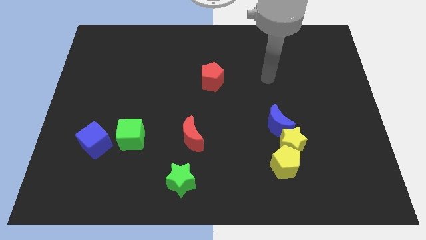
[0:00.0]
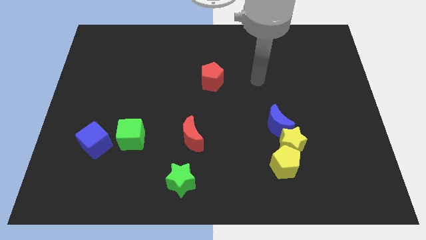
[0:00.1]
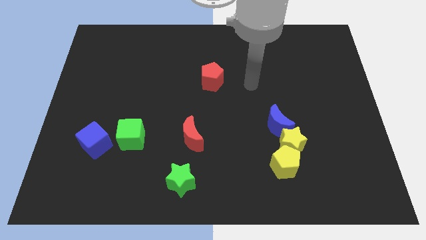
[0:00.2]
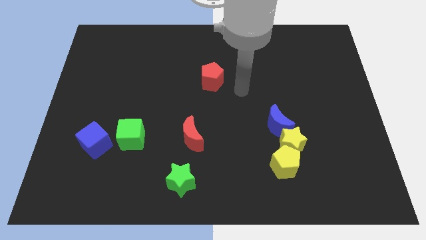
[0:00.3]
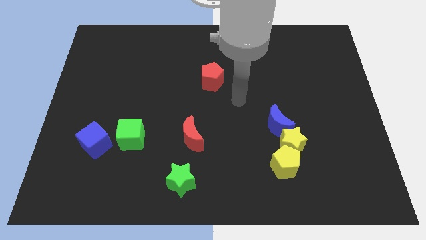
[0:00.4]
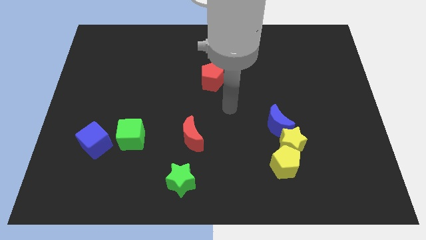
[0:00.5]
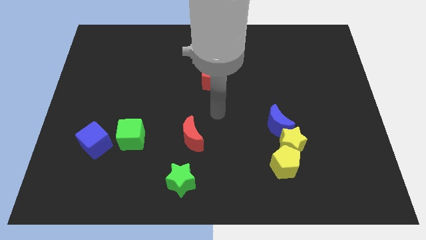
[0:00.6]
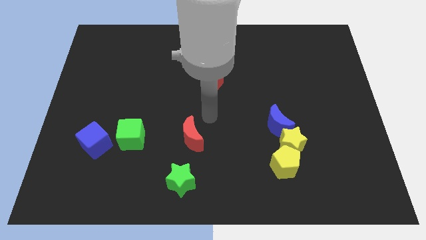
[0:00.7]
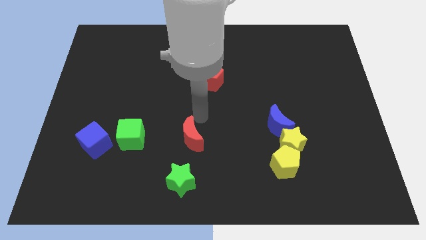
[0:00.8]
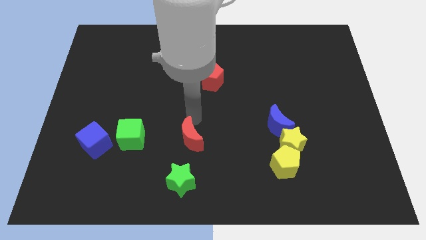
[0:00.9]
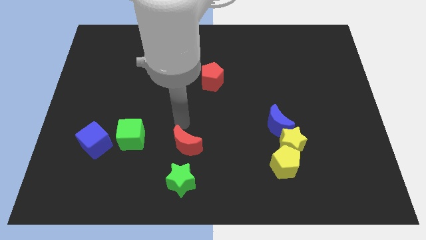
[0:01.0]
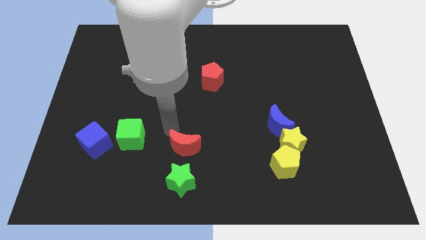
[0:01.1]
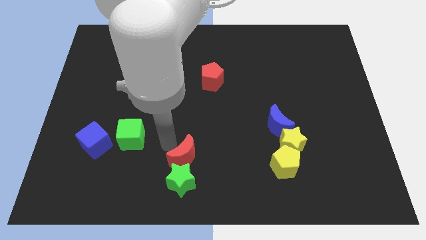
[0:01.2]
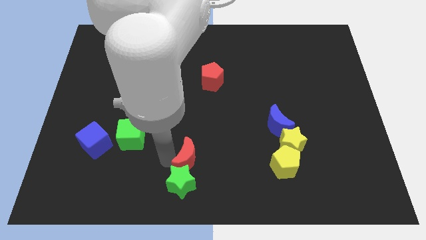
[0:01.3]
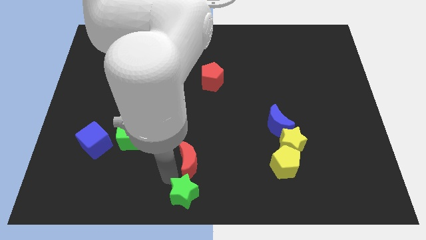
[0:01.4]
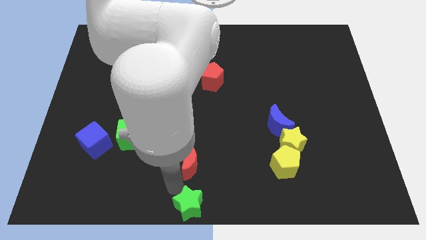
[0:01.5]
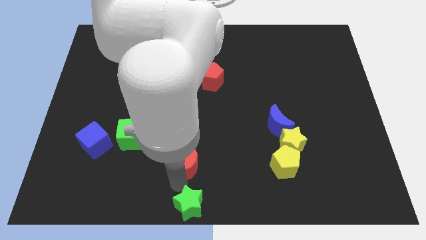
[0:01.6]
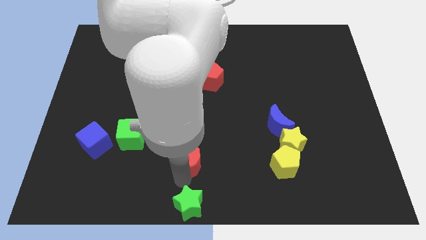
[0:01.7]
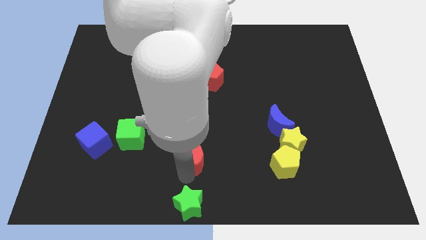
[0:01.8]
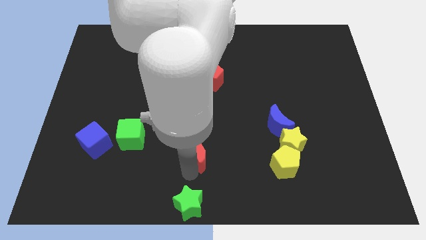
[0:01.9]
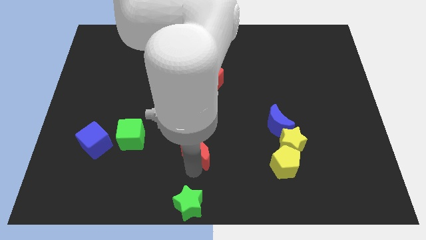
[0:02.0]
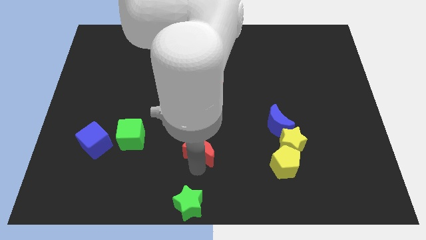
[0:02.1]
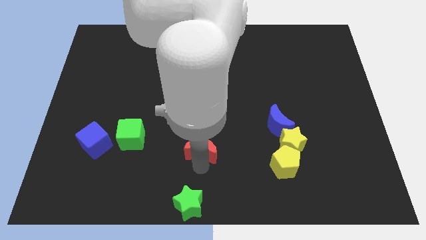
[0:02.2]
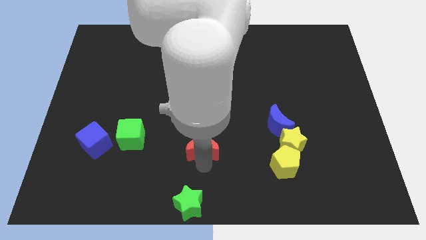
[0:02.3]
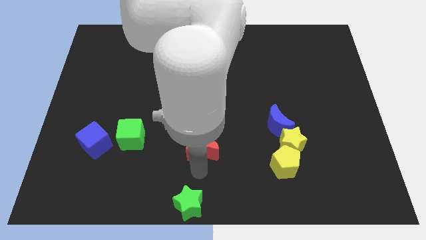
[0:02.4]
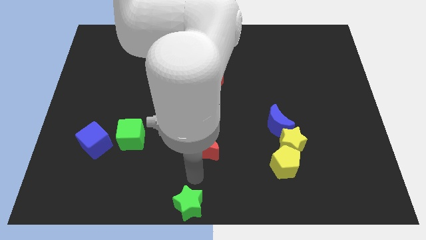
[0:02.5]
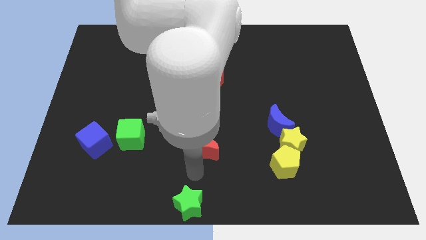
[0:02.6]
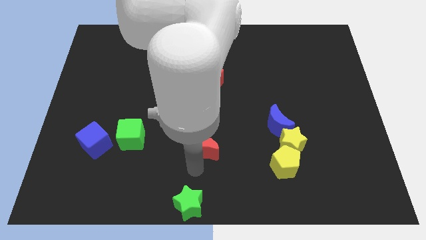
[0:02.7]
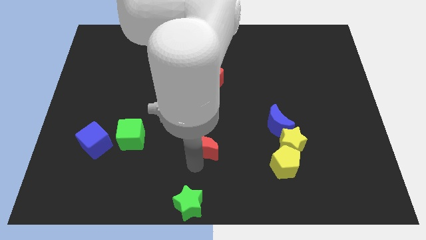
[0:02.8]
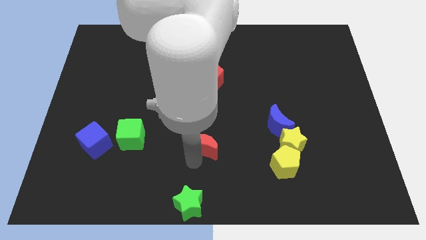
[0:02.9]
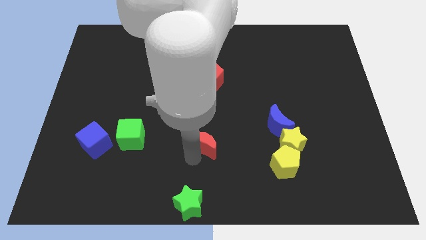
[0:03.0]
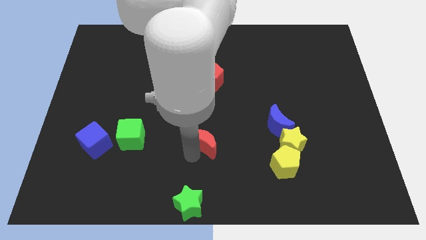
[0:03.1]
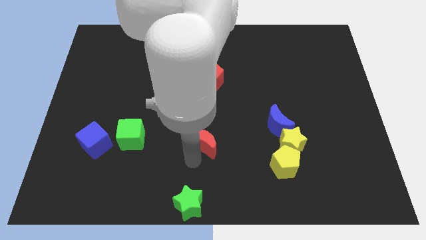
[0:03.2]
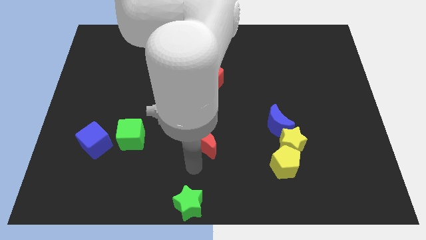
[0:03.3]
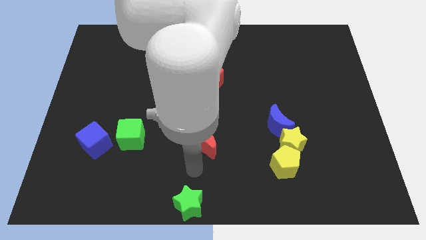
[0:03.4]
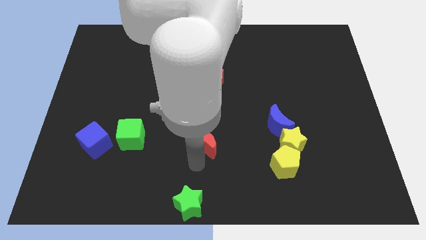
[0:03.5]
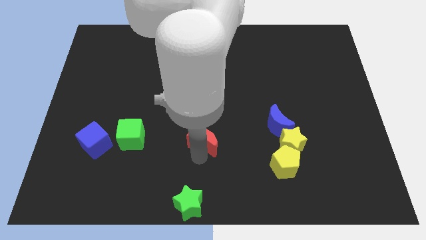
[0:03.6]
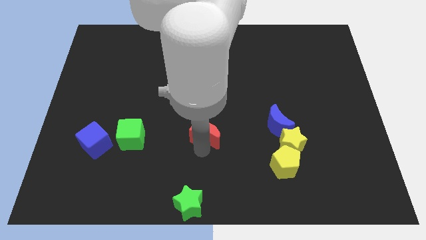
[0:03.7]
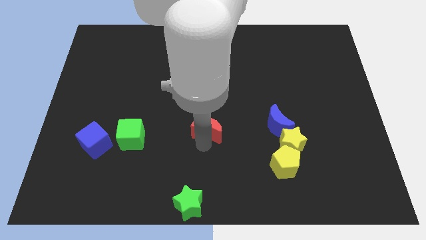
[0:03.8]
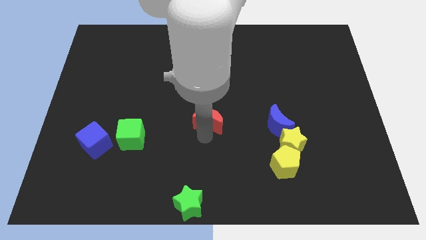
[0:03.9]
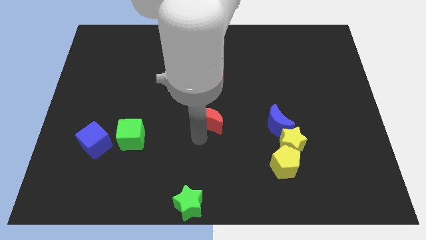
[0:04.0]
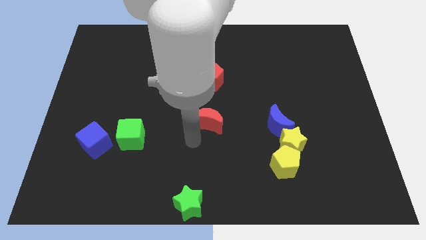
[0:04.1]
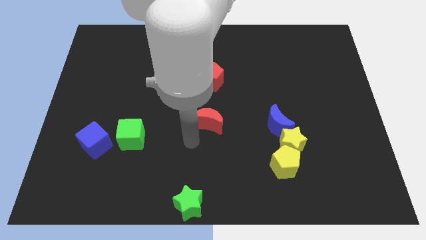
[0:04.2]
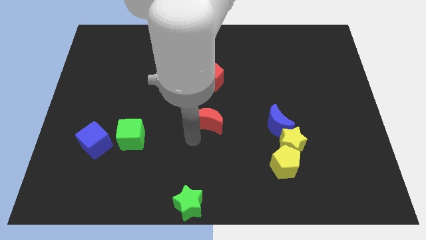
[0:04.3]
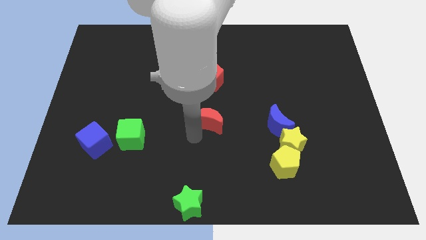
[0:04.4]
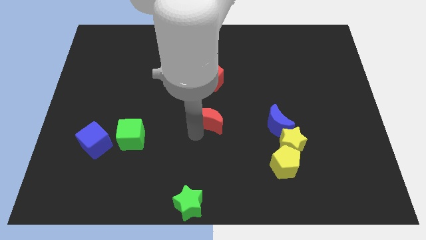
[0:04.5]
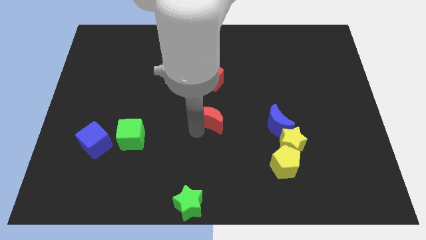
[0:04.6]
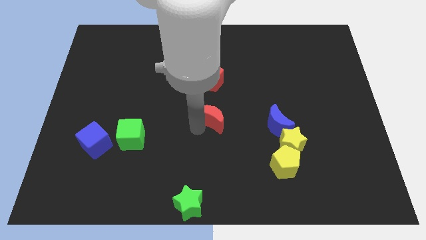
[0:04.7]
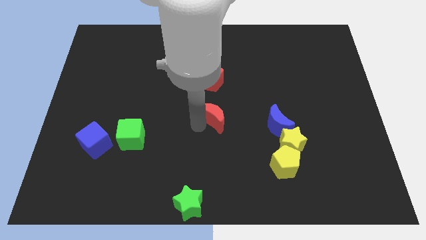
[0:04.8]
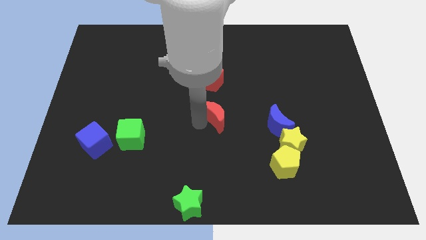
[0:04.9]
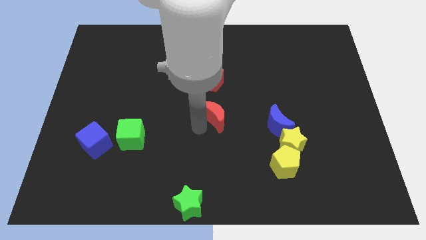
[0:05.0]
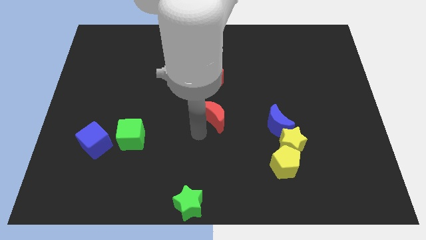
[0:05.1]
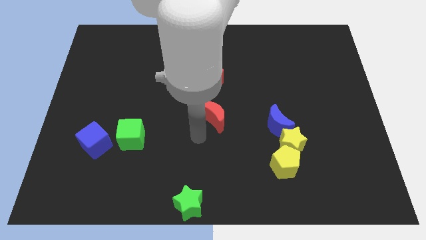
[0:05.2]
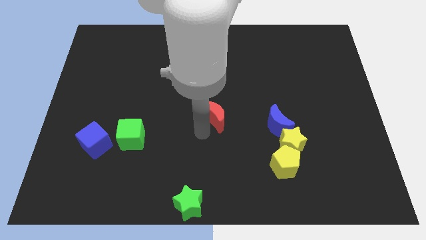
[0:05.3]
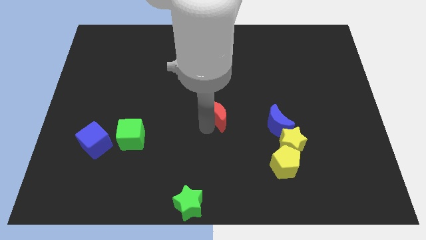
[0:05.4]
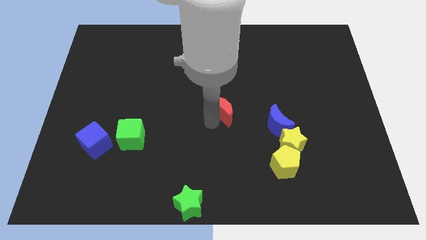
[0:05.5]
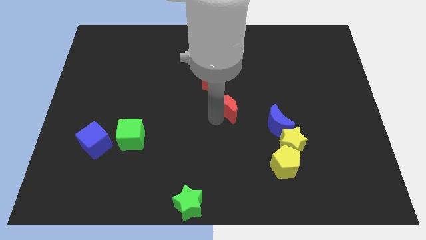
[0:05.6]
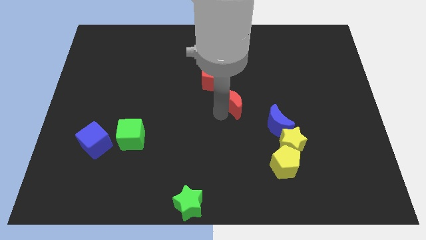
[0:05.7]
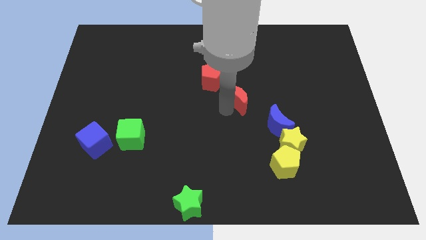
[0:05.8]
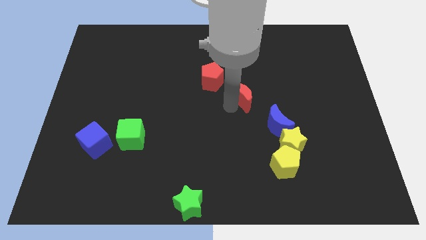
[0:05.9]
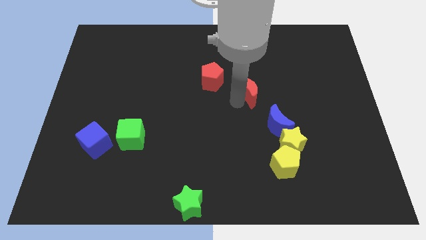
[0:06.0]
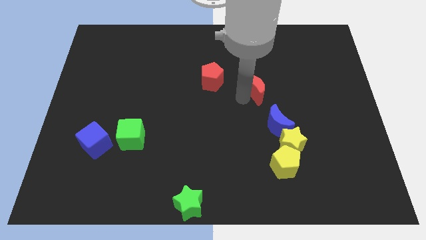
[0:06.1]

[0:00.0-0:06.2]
move the red moon upwards and then right

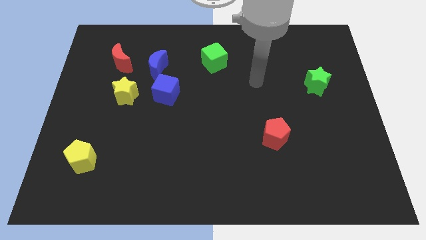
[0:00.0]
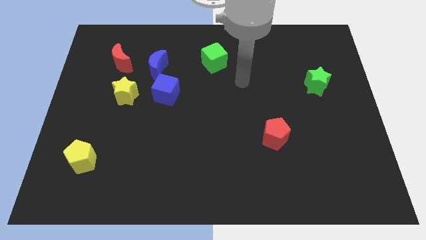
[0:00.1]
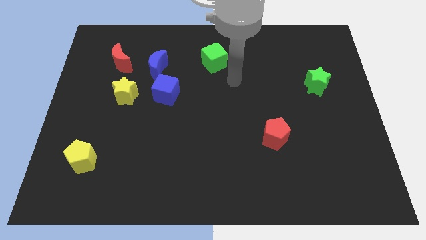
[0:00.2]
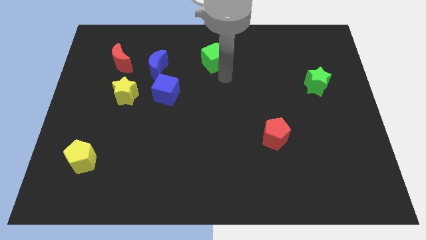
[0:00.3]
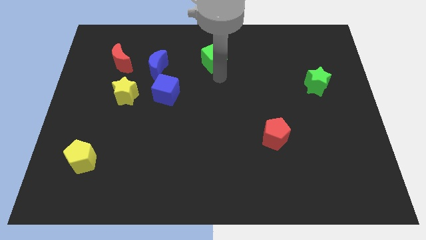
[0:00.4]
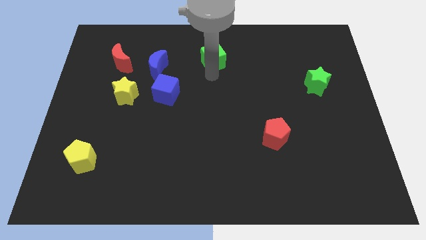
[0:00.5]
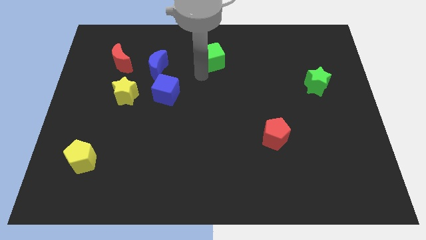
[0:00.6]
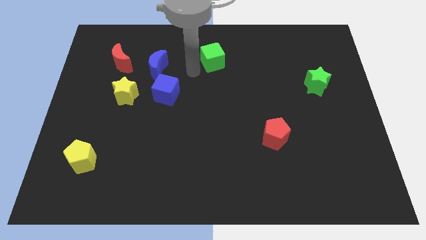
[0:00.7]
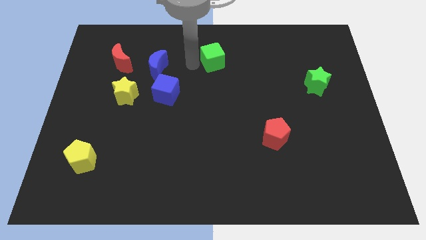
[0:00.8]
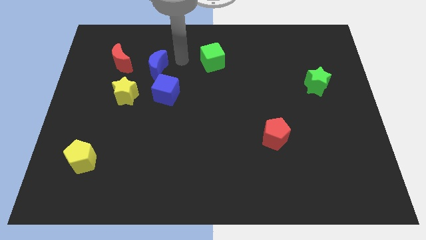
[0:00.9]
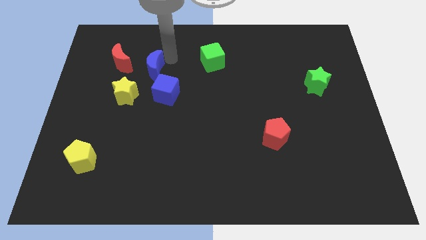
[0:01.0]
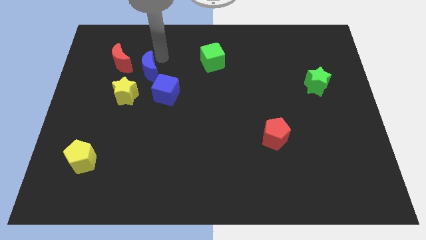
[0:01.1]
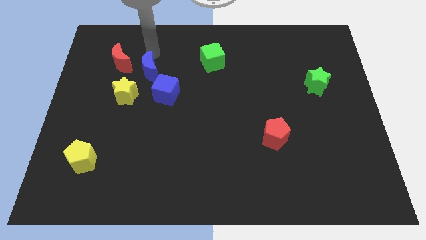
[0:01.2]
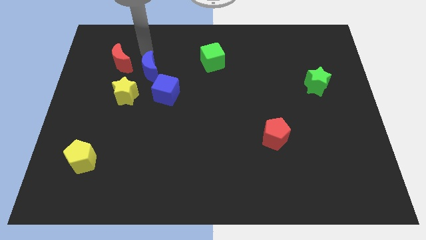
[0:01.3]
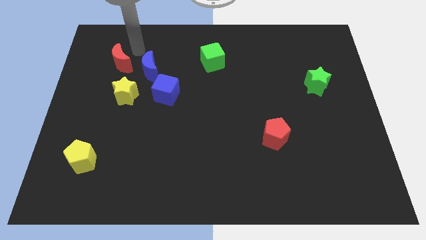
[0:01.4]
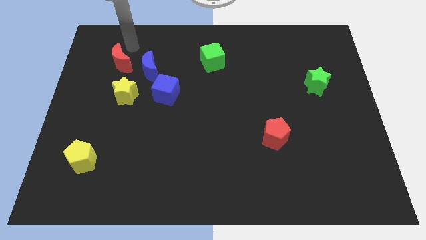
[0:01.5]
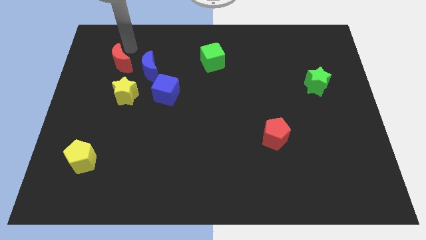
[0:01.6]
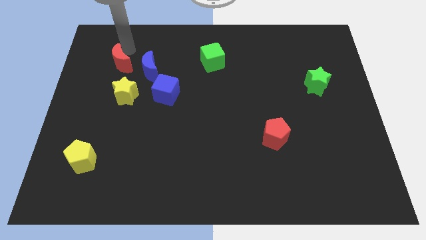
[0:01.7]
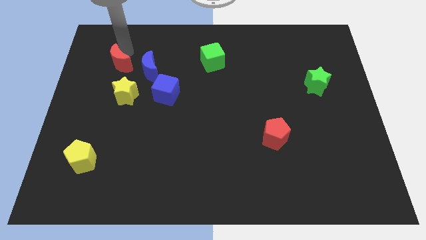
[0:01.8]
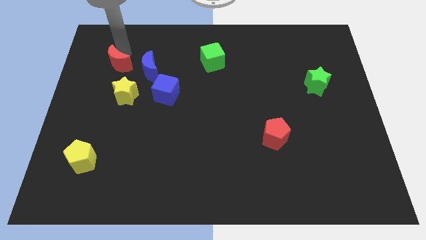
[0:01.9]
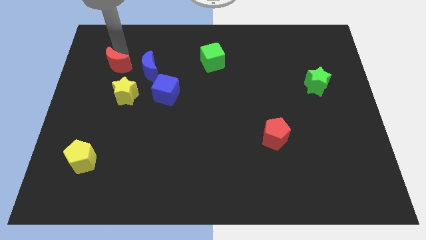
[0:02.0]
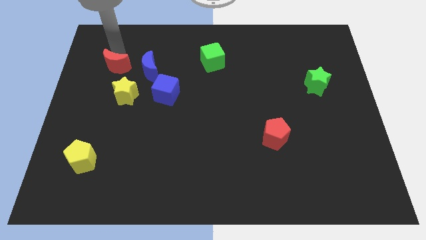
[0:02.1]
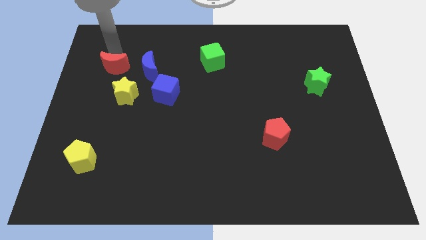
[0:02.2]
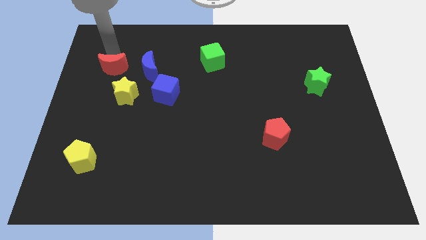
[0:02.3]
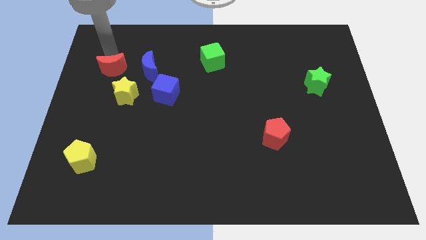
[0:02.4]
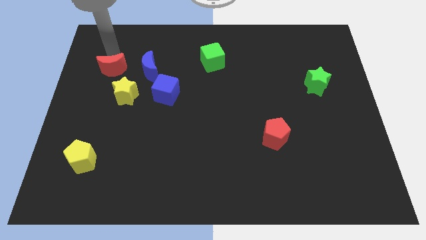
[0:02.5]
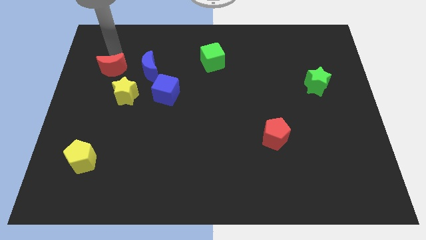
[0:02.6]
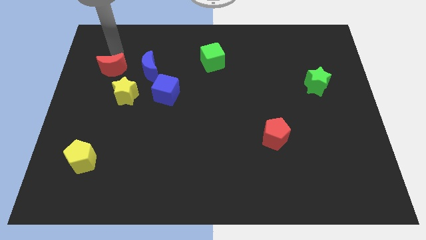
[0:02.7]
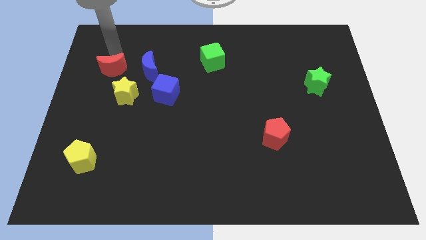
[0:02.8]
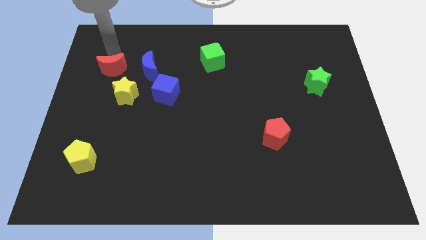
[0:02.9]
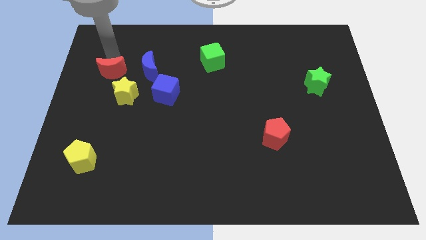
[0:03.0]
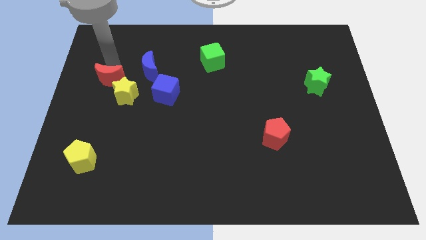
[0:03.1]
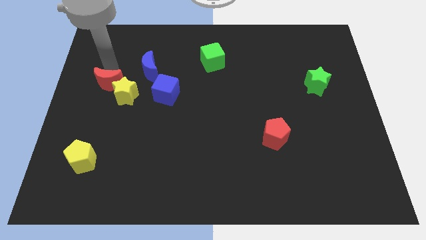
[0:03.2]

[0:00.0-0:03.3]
move the red moon a little bit down
